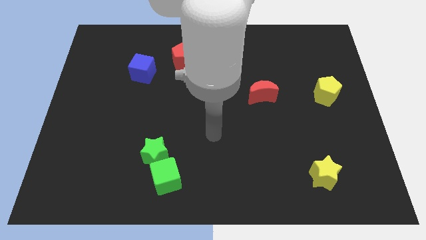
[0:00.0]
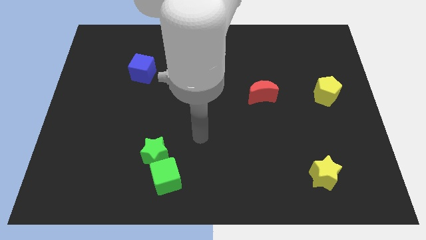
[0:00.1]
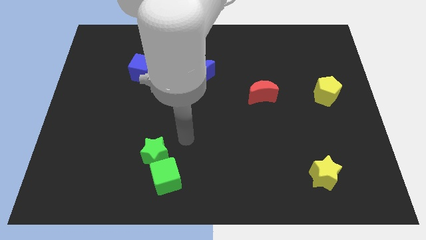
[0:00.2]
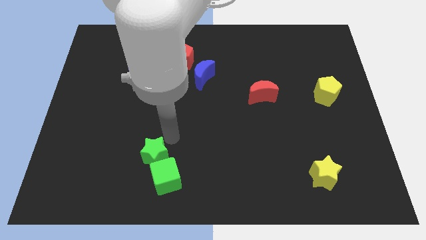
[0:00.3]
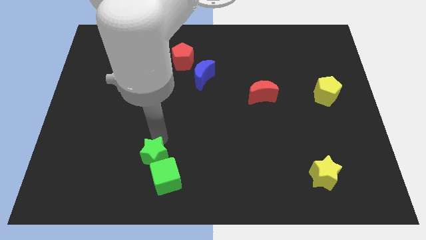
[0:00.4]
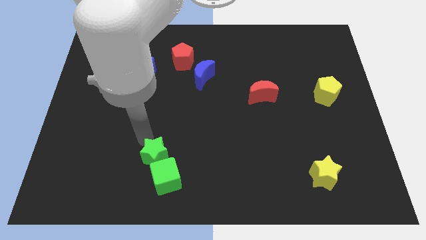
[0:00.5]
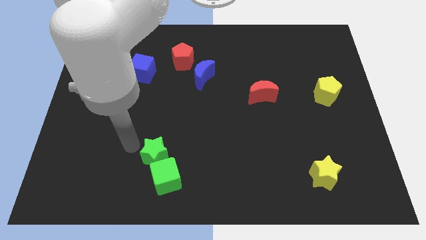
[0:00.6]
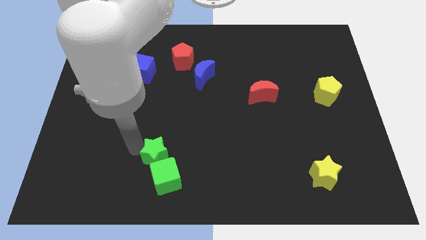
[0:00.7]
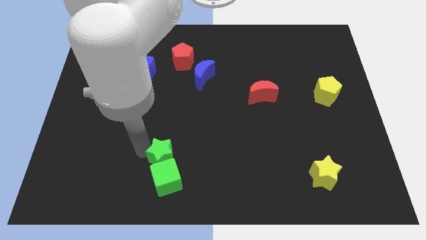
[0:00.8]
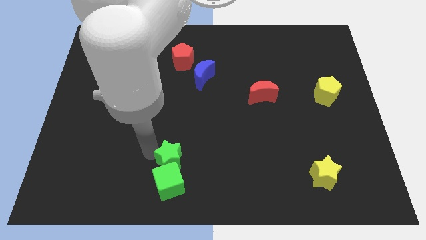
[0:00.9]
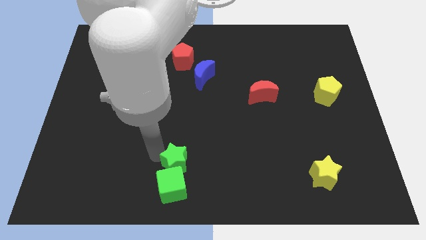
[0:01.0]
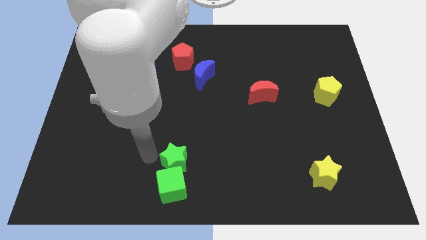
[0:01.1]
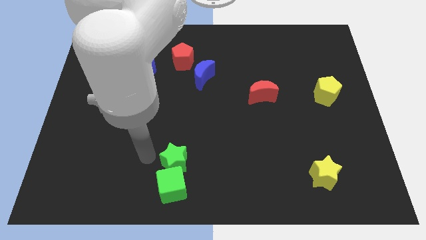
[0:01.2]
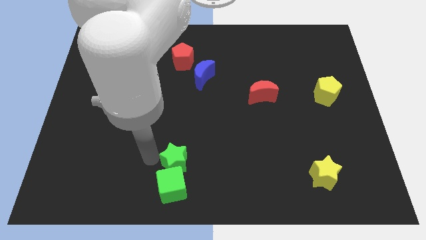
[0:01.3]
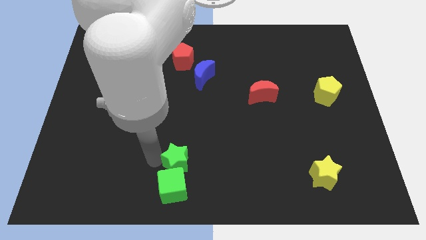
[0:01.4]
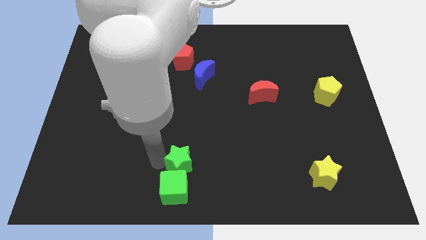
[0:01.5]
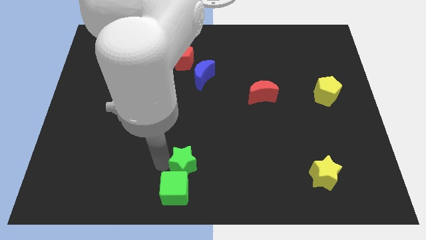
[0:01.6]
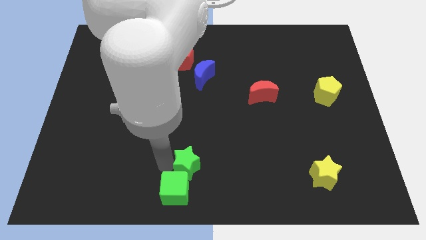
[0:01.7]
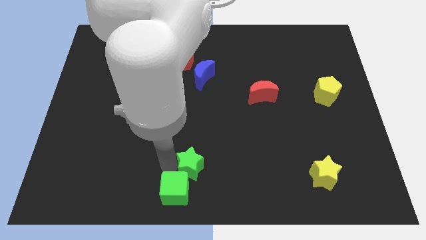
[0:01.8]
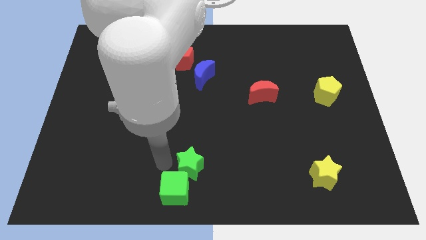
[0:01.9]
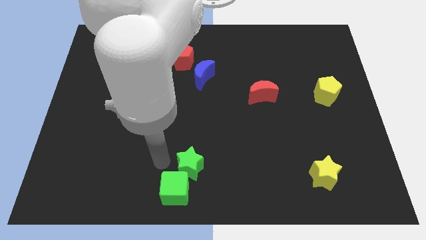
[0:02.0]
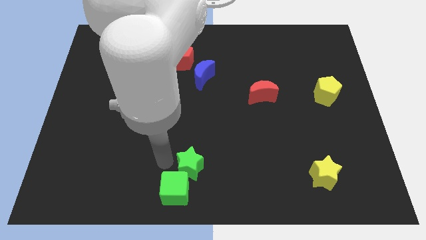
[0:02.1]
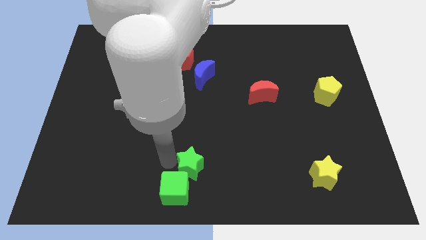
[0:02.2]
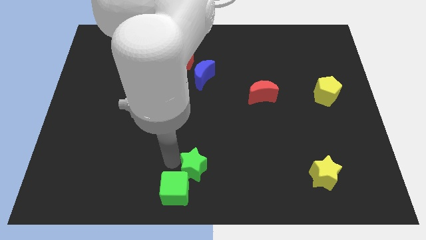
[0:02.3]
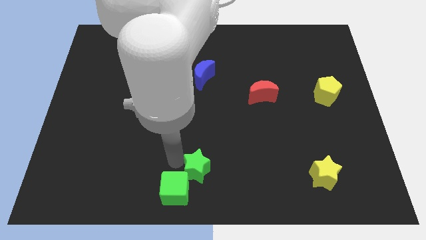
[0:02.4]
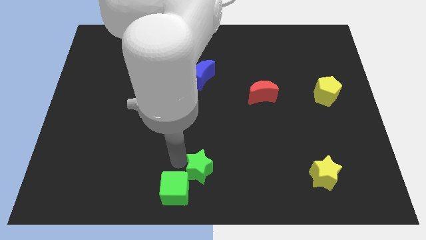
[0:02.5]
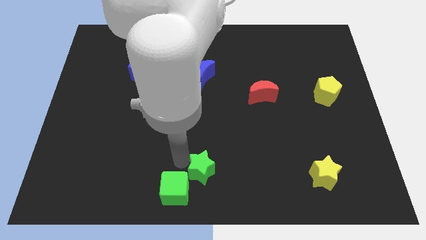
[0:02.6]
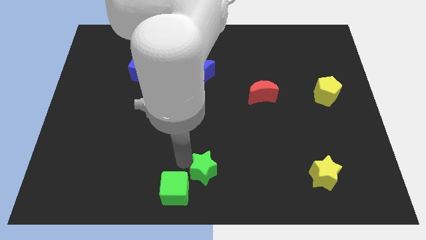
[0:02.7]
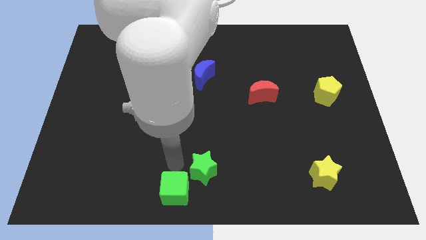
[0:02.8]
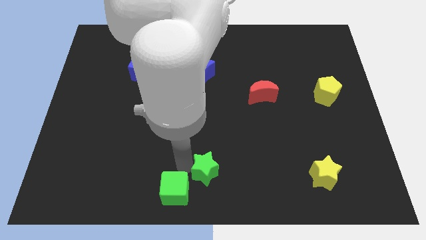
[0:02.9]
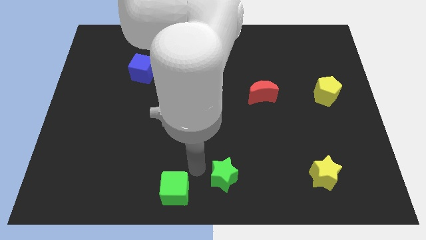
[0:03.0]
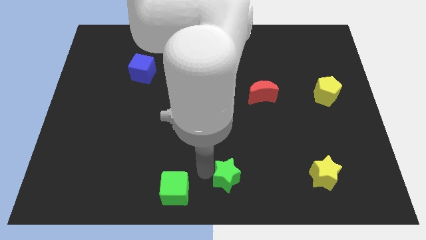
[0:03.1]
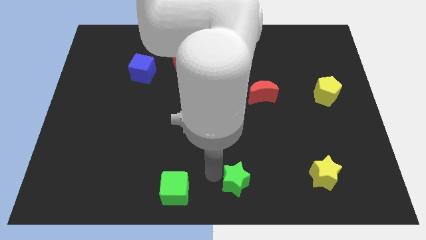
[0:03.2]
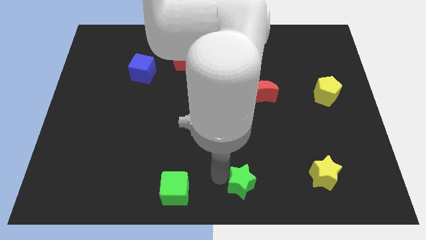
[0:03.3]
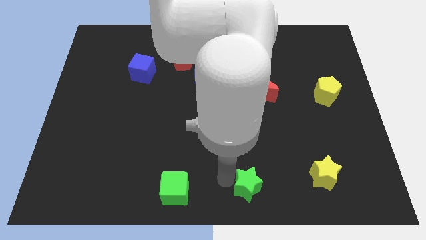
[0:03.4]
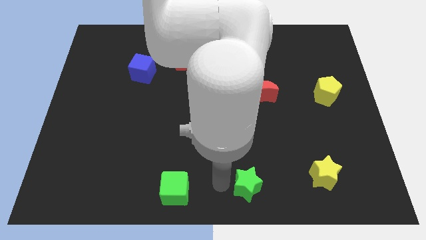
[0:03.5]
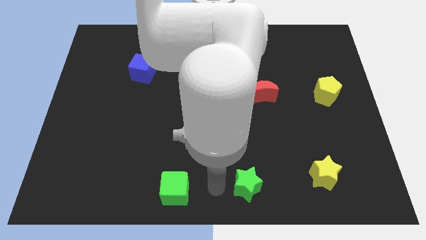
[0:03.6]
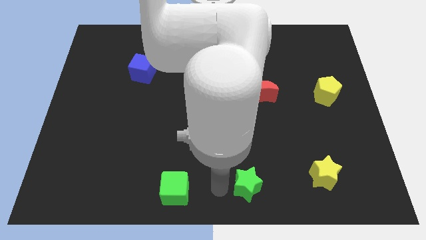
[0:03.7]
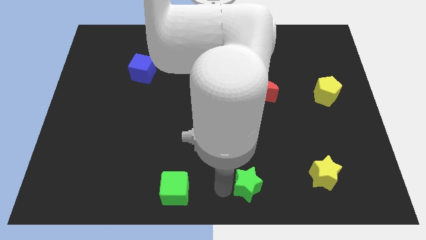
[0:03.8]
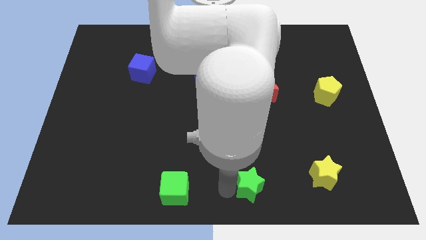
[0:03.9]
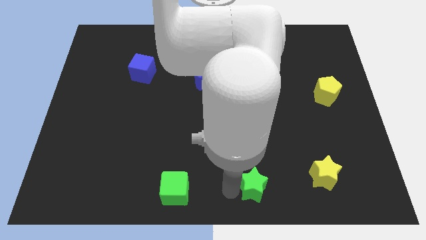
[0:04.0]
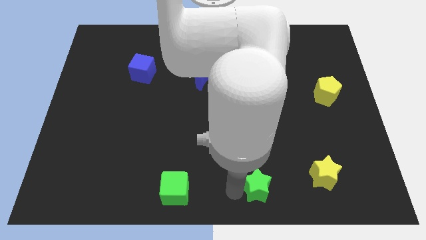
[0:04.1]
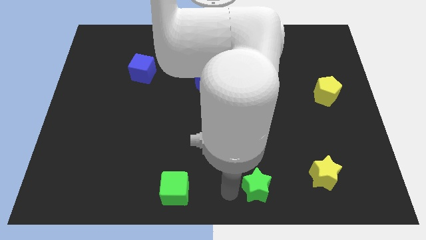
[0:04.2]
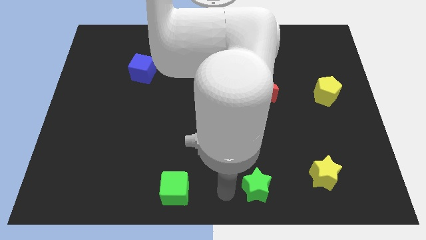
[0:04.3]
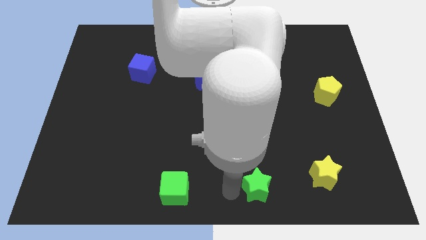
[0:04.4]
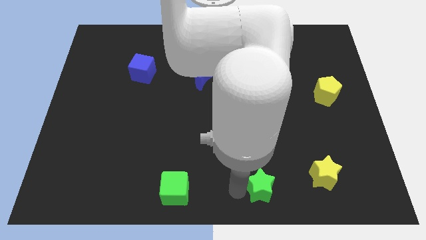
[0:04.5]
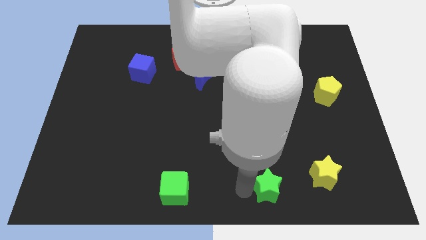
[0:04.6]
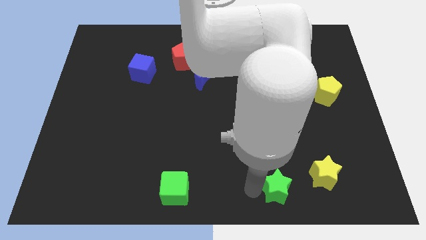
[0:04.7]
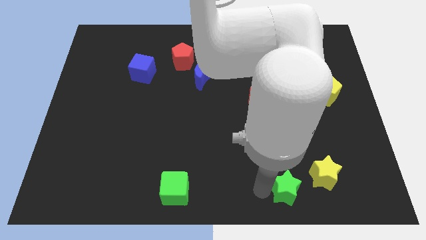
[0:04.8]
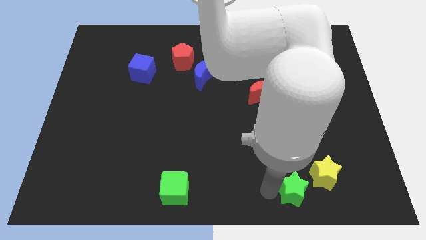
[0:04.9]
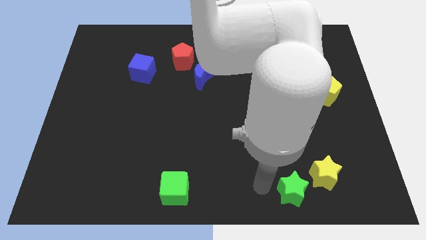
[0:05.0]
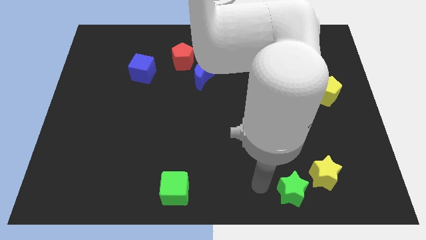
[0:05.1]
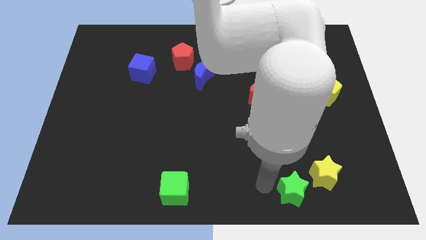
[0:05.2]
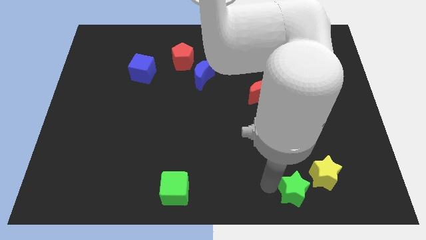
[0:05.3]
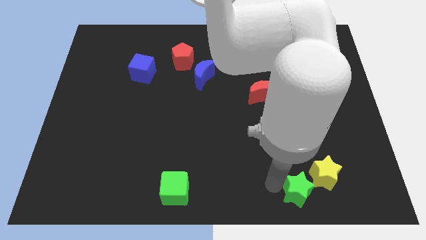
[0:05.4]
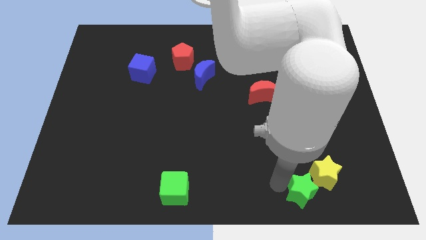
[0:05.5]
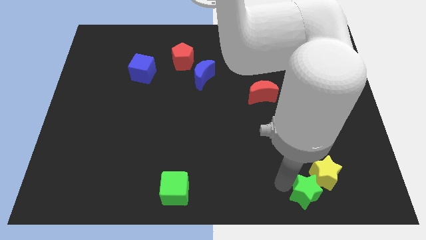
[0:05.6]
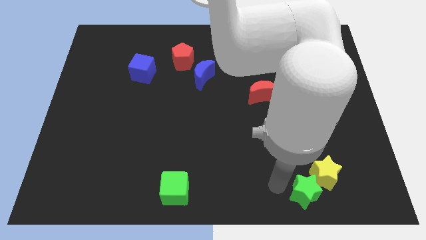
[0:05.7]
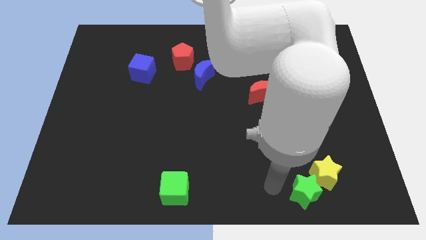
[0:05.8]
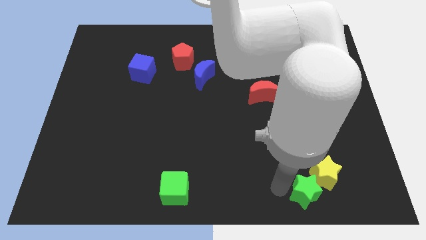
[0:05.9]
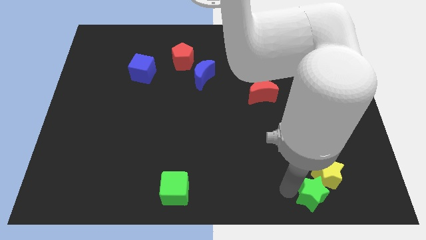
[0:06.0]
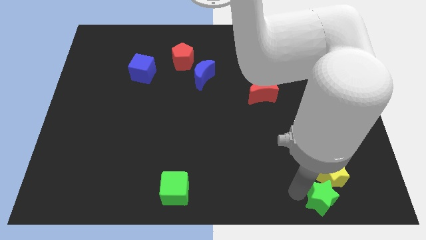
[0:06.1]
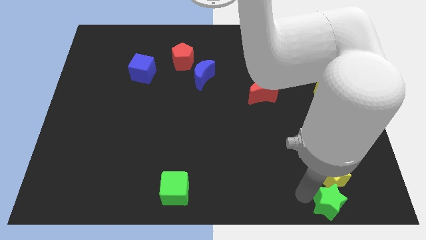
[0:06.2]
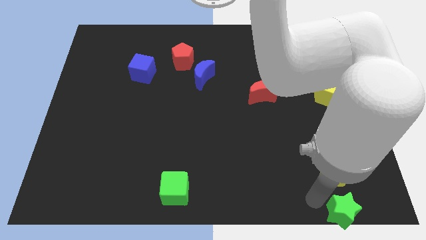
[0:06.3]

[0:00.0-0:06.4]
move the green star to the lower right corner
